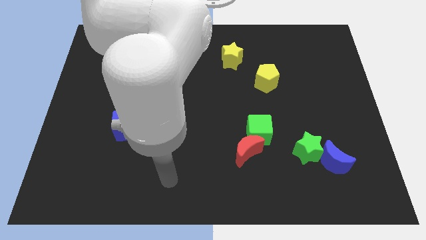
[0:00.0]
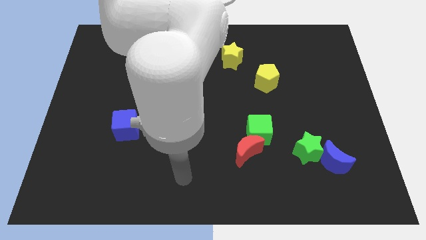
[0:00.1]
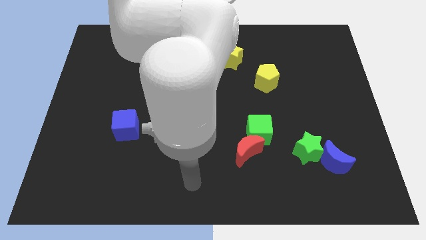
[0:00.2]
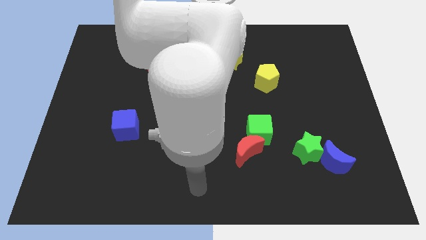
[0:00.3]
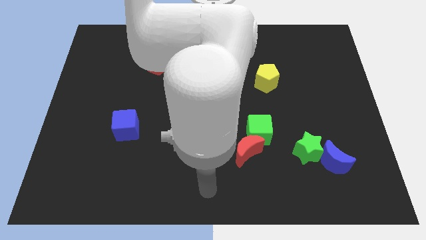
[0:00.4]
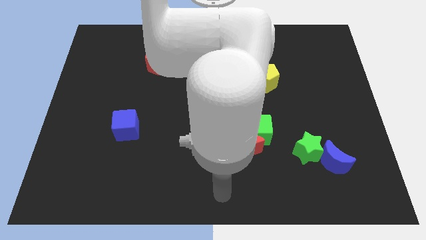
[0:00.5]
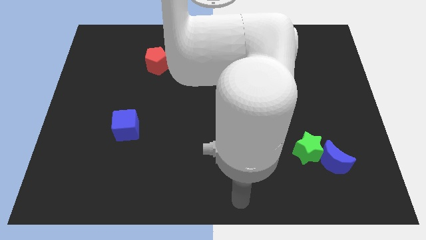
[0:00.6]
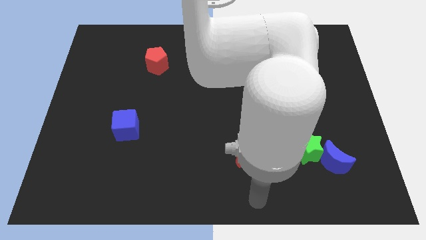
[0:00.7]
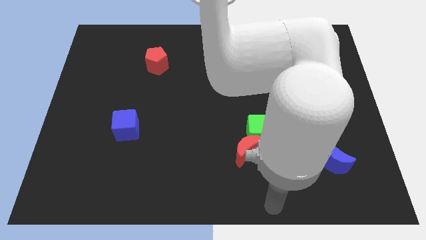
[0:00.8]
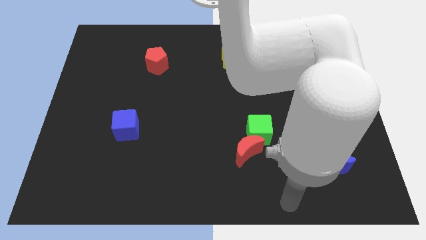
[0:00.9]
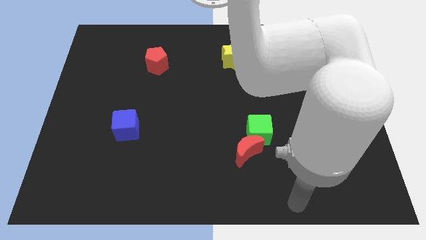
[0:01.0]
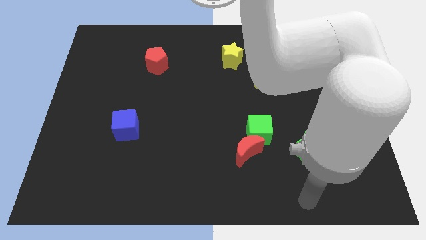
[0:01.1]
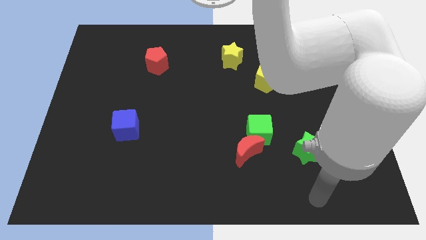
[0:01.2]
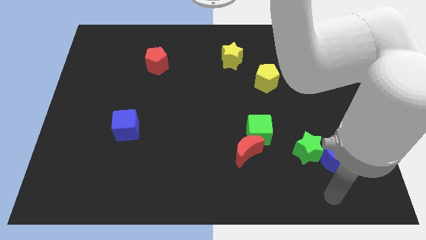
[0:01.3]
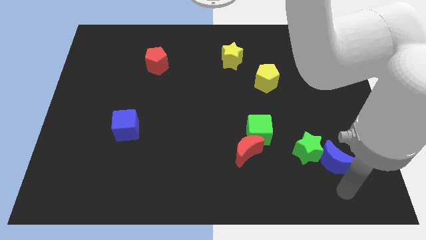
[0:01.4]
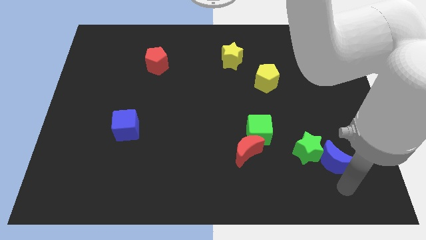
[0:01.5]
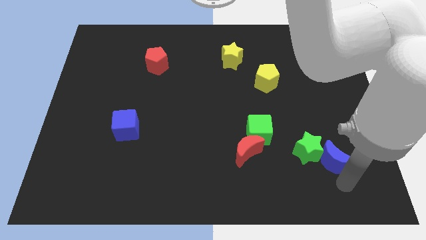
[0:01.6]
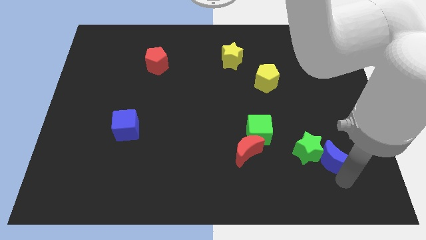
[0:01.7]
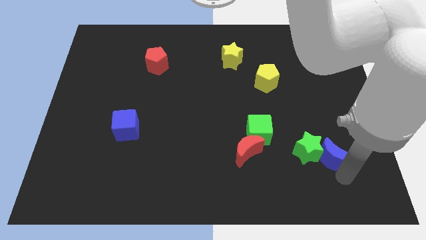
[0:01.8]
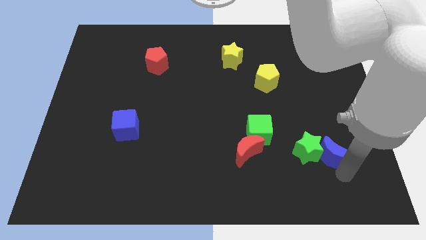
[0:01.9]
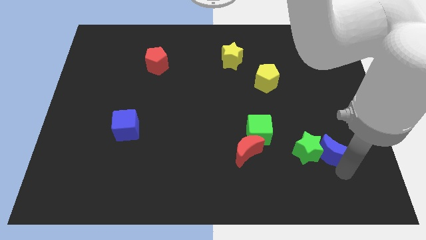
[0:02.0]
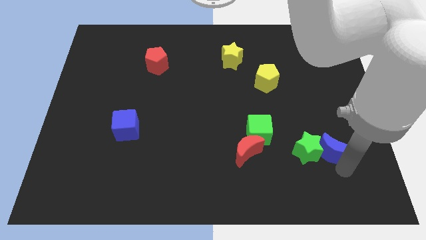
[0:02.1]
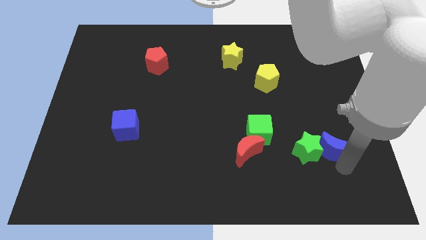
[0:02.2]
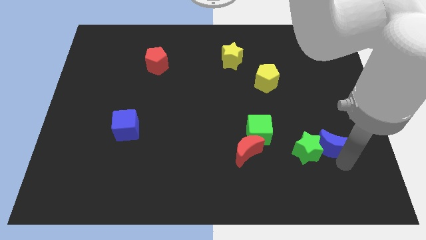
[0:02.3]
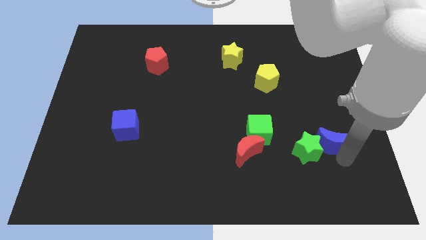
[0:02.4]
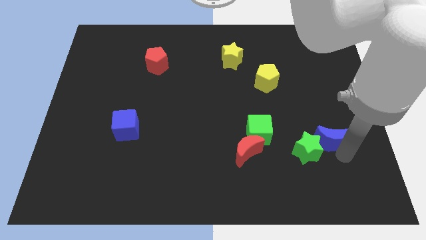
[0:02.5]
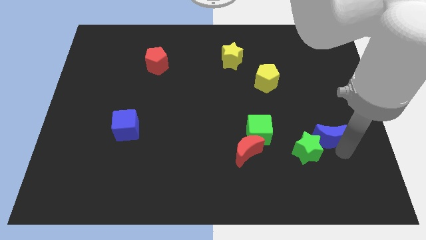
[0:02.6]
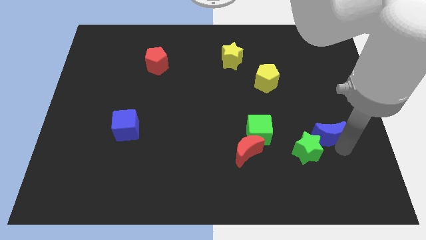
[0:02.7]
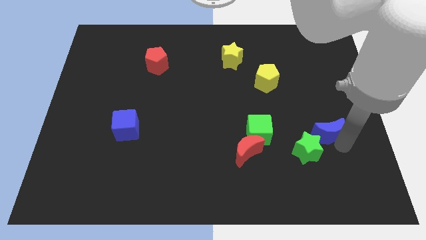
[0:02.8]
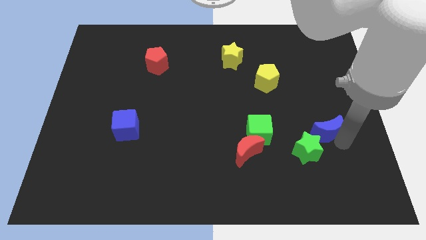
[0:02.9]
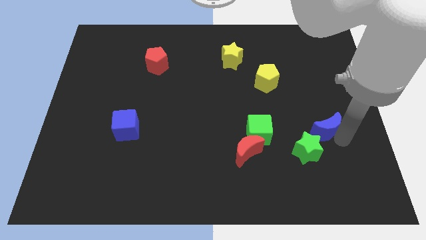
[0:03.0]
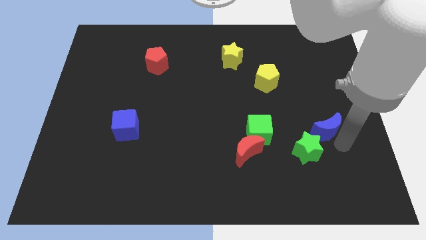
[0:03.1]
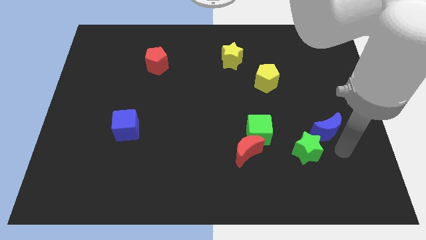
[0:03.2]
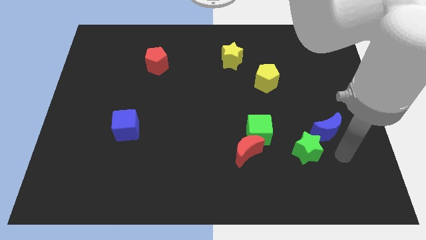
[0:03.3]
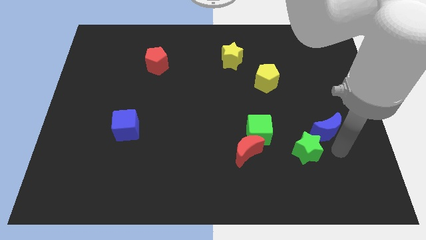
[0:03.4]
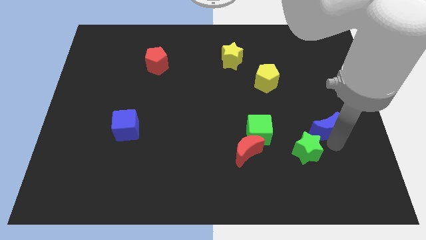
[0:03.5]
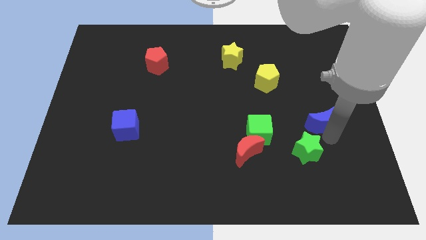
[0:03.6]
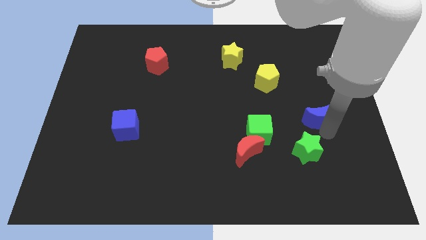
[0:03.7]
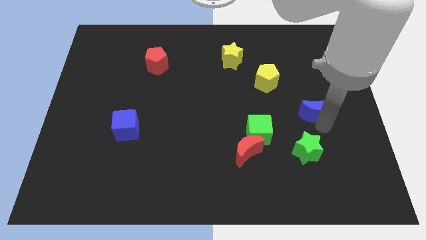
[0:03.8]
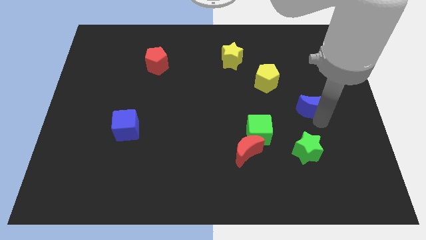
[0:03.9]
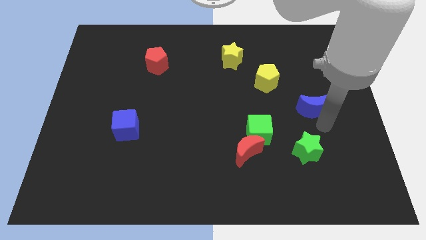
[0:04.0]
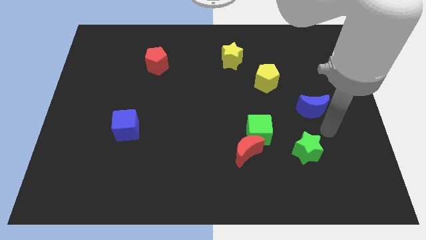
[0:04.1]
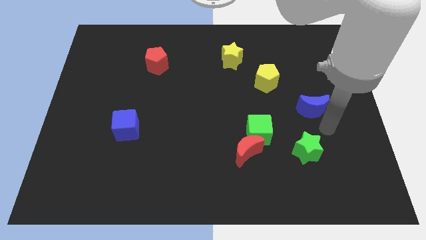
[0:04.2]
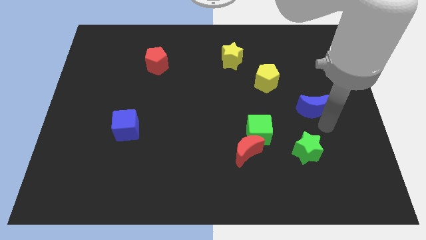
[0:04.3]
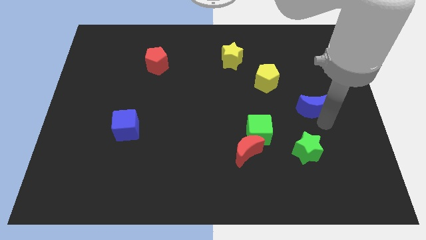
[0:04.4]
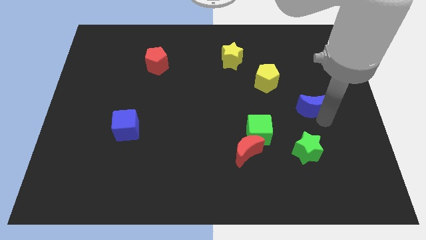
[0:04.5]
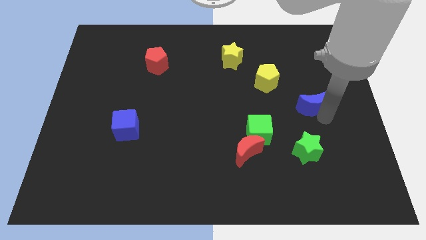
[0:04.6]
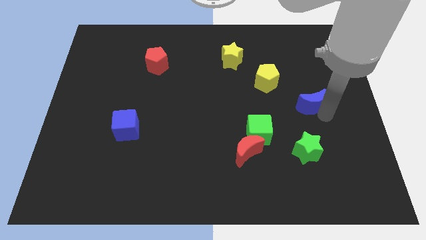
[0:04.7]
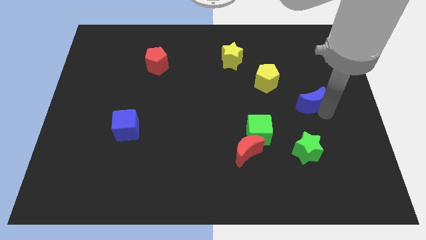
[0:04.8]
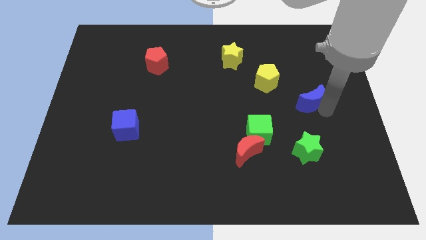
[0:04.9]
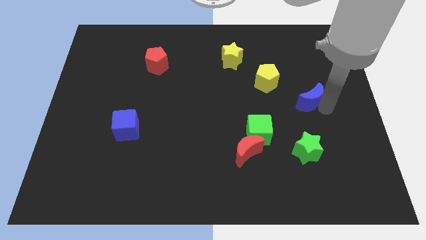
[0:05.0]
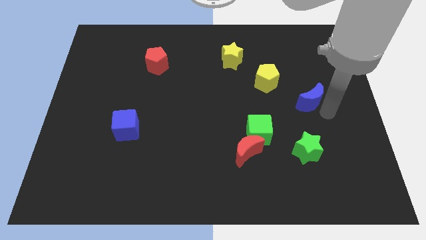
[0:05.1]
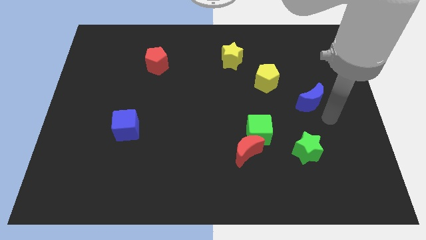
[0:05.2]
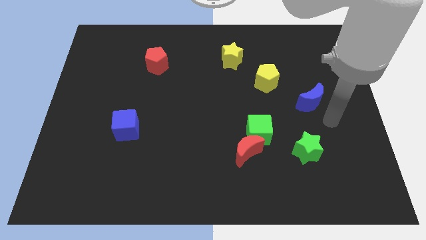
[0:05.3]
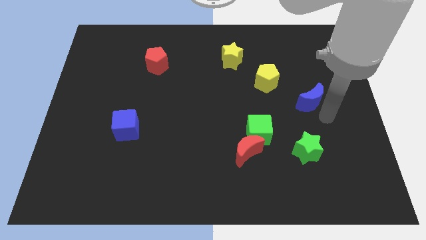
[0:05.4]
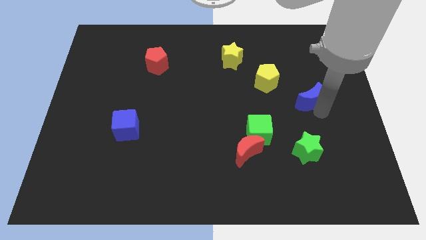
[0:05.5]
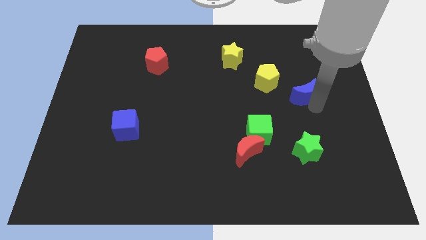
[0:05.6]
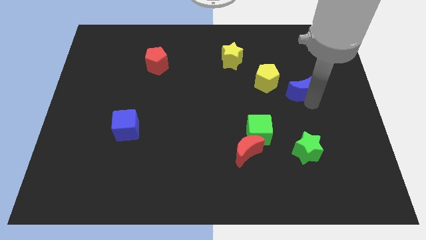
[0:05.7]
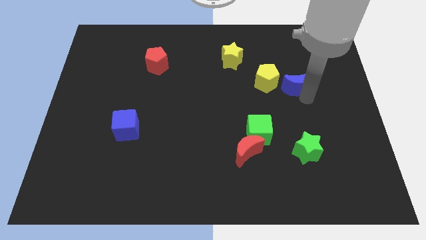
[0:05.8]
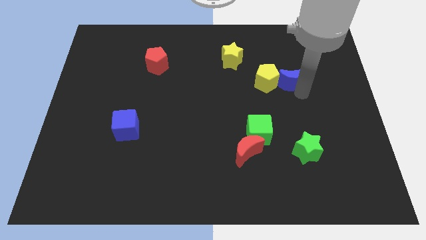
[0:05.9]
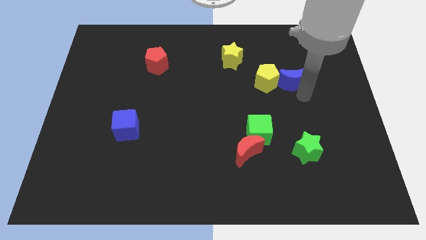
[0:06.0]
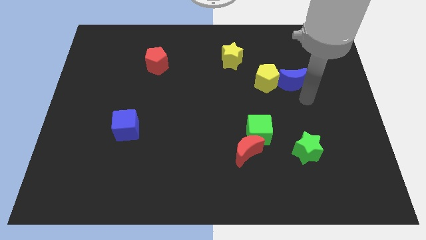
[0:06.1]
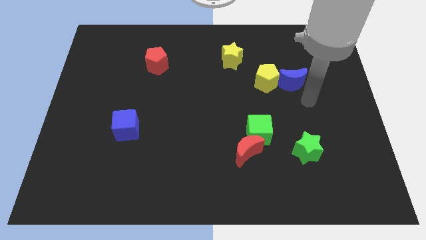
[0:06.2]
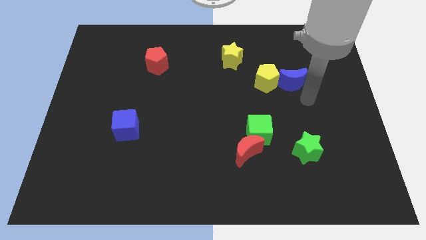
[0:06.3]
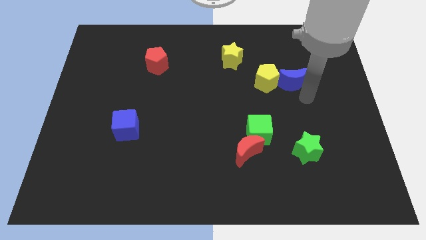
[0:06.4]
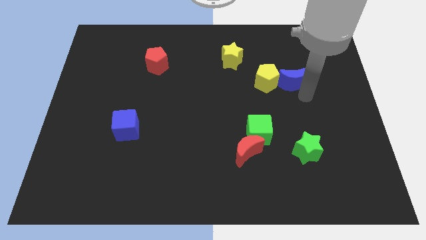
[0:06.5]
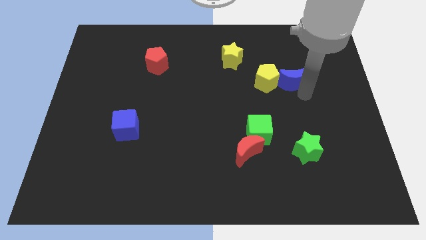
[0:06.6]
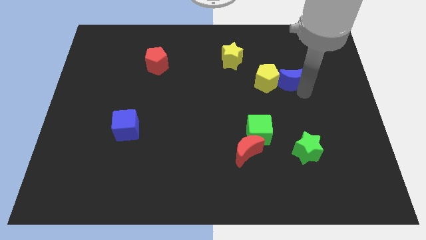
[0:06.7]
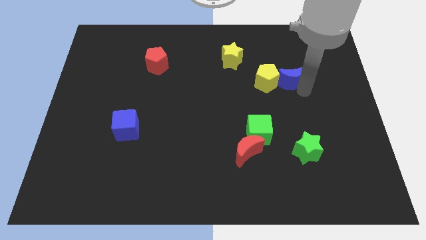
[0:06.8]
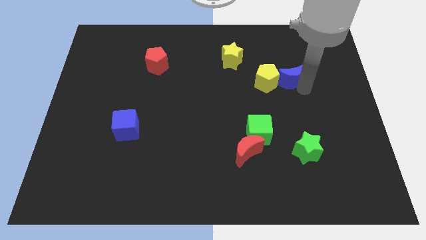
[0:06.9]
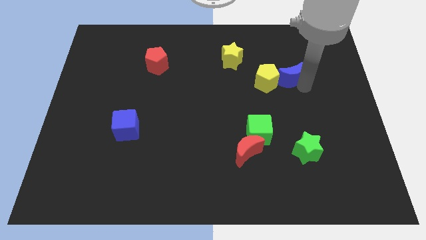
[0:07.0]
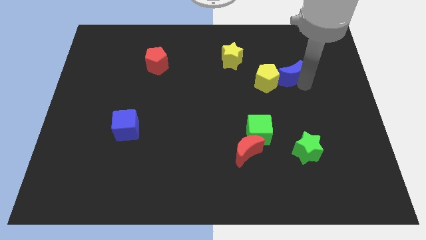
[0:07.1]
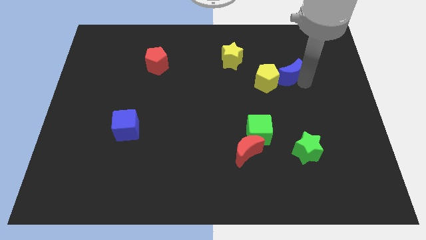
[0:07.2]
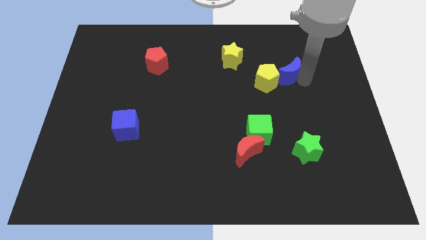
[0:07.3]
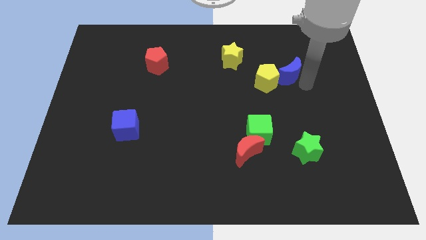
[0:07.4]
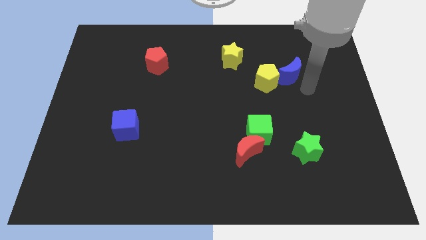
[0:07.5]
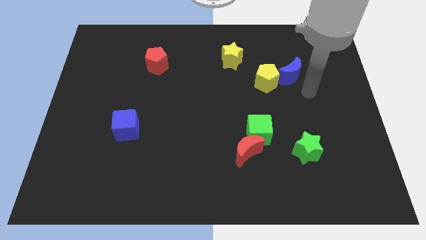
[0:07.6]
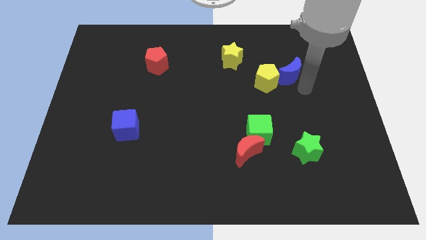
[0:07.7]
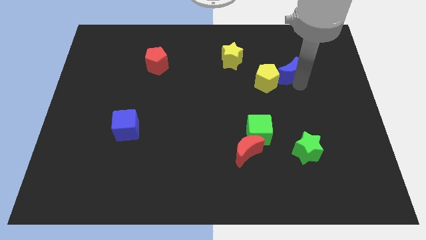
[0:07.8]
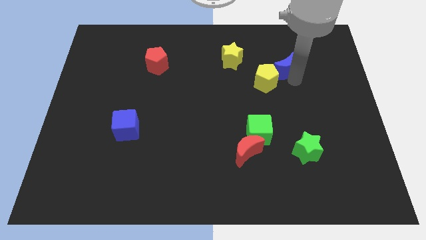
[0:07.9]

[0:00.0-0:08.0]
move the blue moon to the right side of the yellow star
